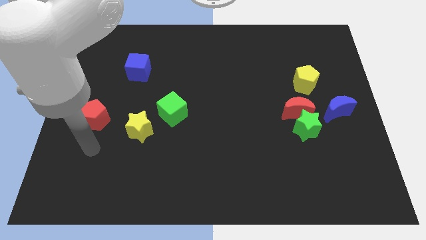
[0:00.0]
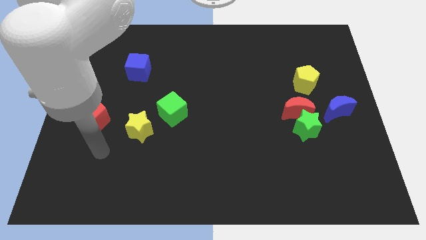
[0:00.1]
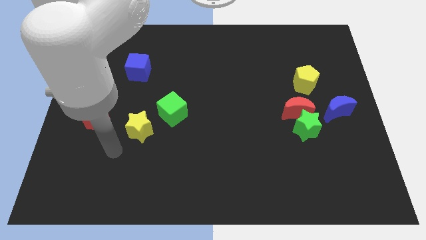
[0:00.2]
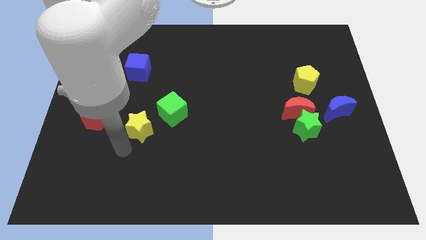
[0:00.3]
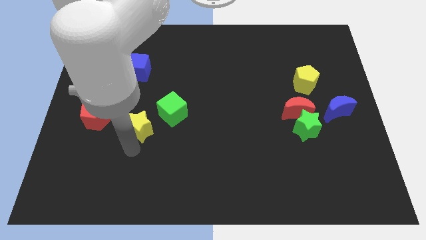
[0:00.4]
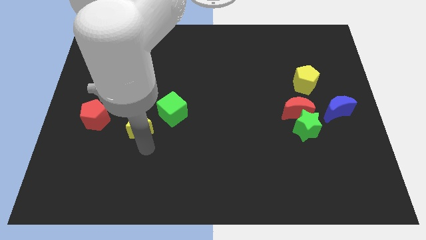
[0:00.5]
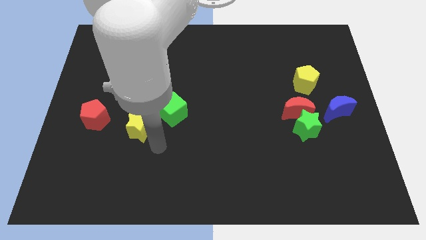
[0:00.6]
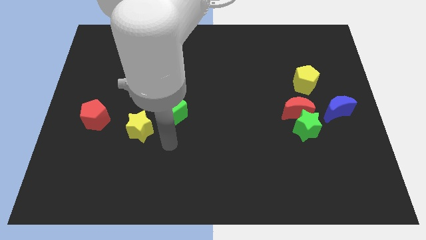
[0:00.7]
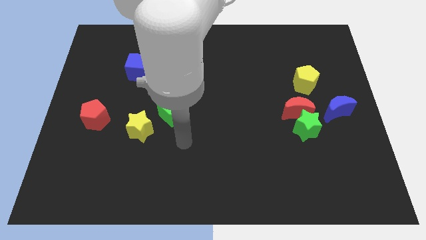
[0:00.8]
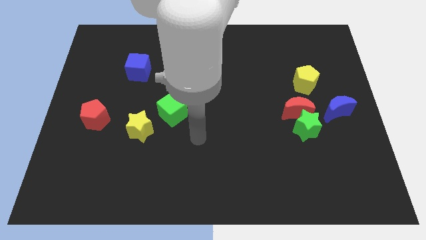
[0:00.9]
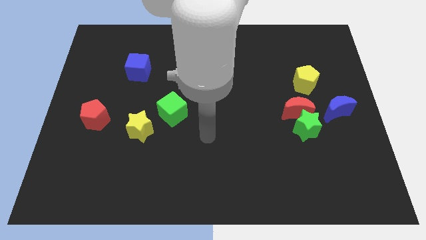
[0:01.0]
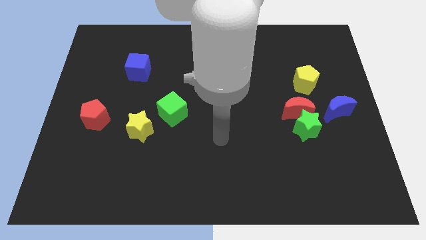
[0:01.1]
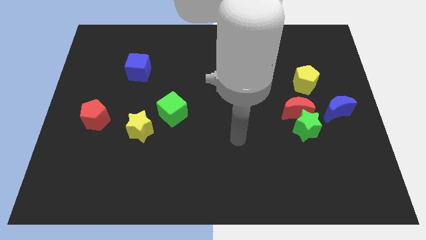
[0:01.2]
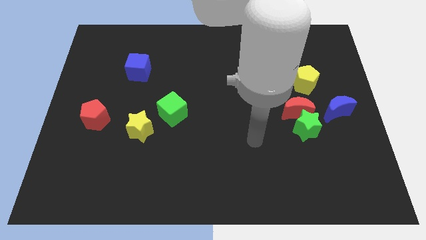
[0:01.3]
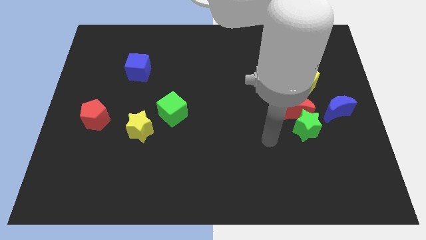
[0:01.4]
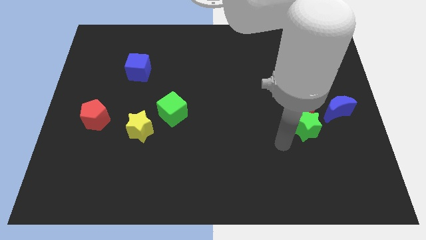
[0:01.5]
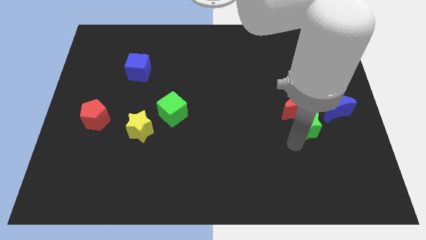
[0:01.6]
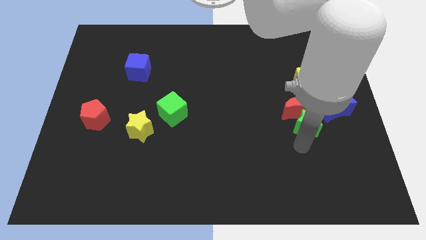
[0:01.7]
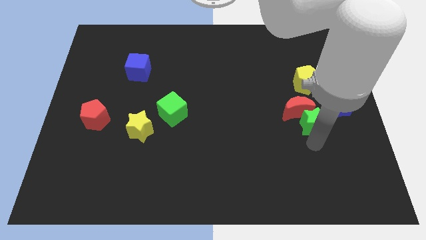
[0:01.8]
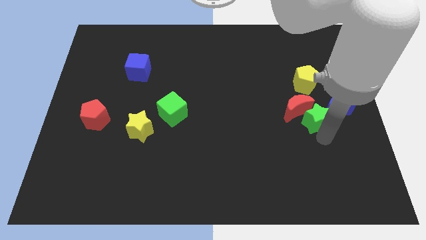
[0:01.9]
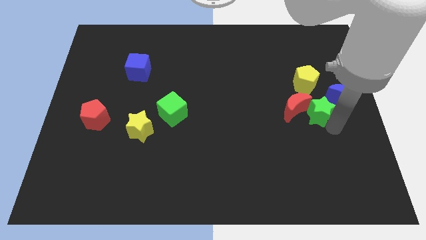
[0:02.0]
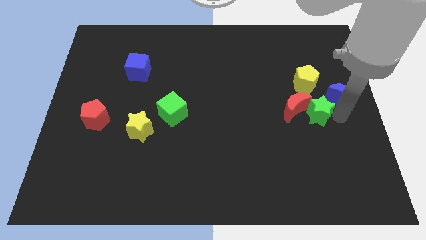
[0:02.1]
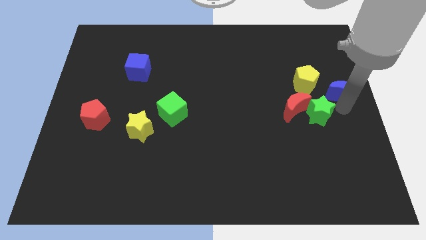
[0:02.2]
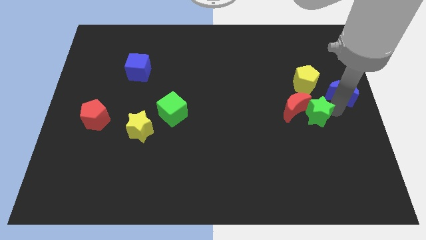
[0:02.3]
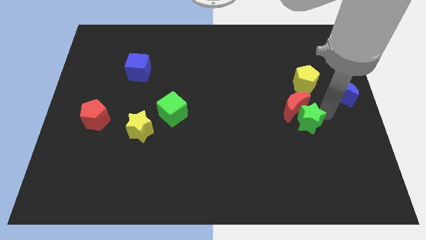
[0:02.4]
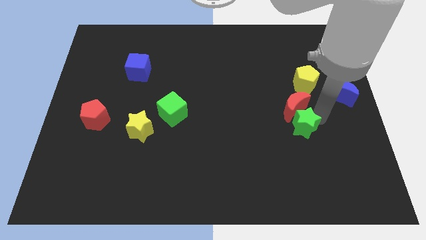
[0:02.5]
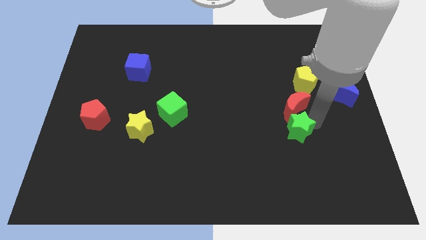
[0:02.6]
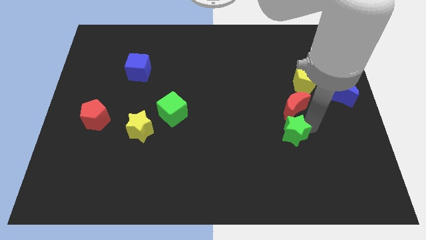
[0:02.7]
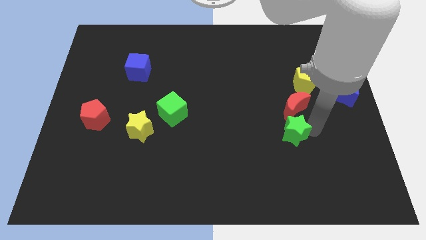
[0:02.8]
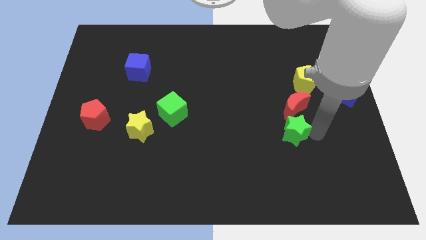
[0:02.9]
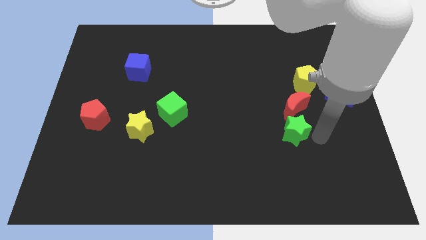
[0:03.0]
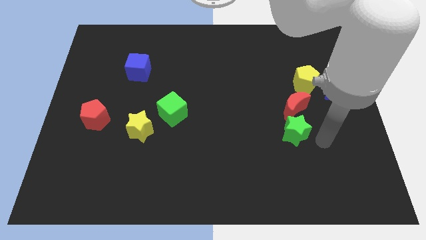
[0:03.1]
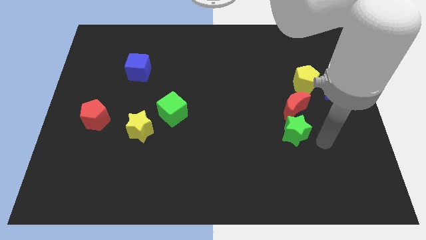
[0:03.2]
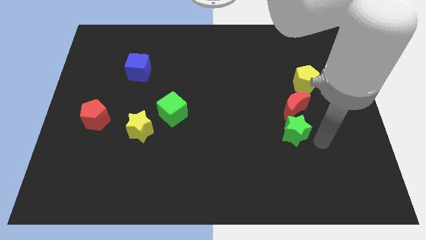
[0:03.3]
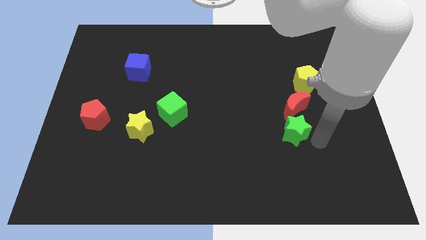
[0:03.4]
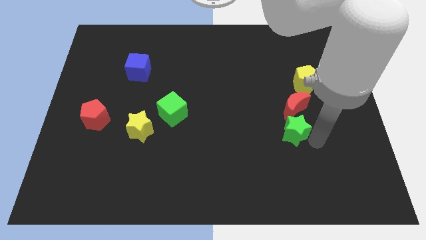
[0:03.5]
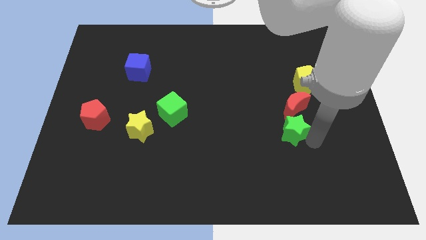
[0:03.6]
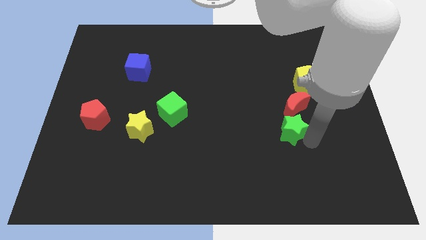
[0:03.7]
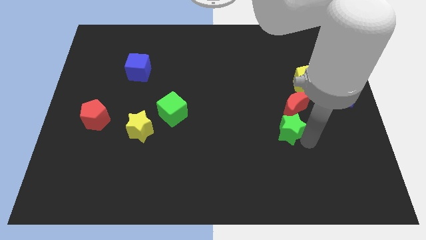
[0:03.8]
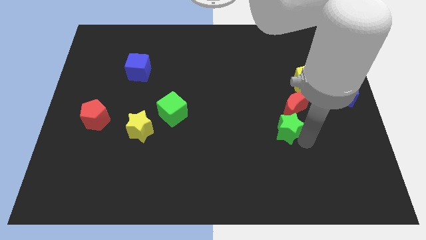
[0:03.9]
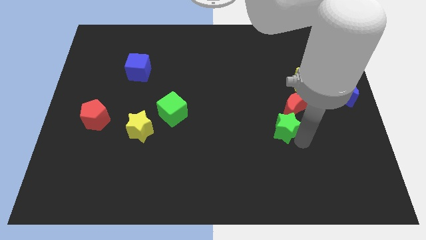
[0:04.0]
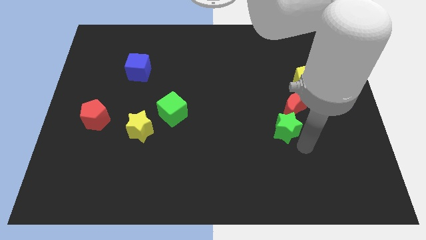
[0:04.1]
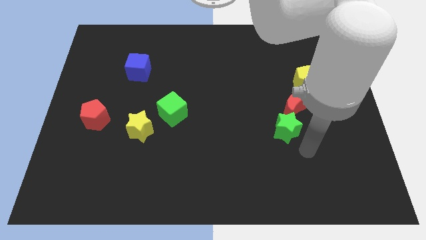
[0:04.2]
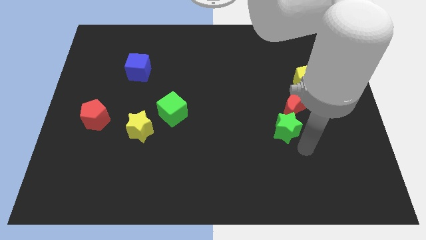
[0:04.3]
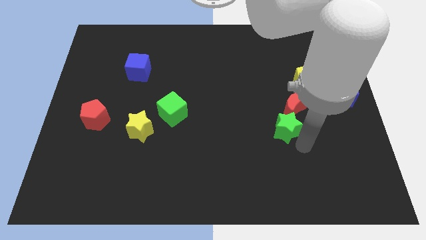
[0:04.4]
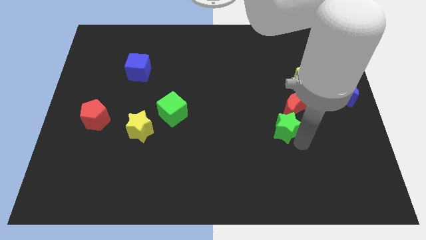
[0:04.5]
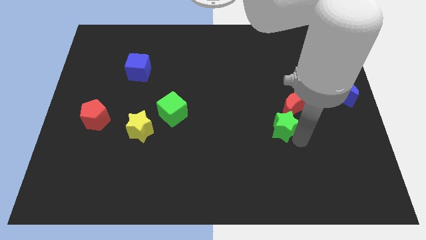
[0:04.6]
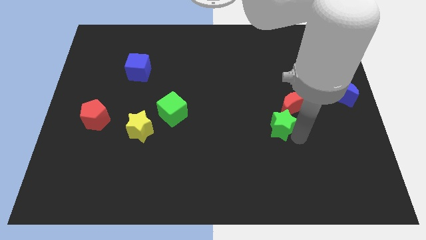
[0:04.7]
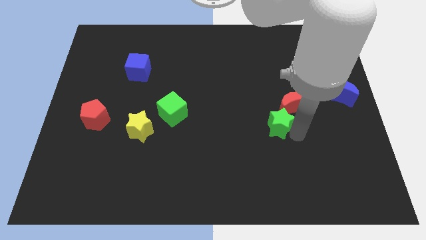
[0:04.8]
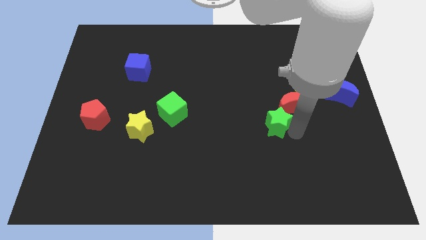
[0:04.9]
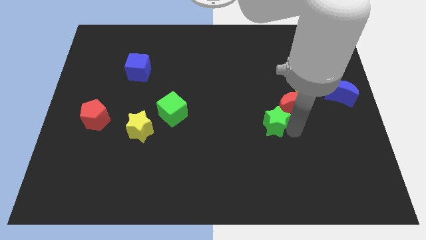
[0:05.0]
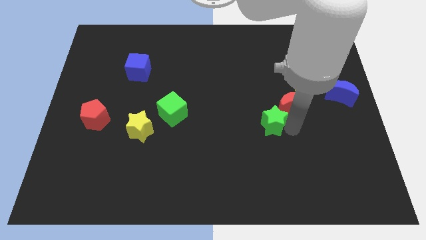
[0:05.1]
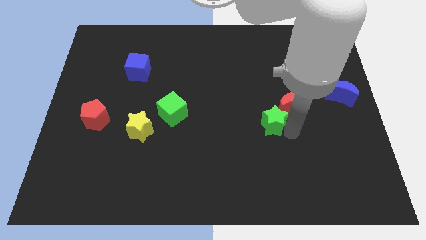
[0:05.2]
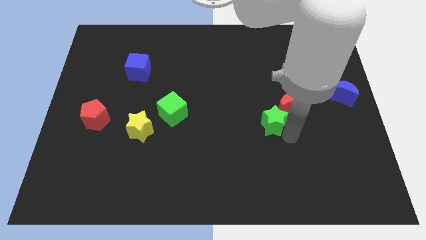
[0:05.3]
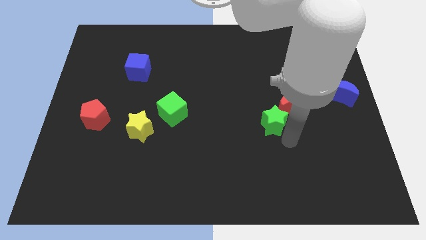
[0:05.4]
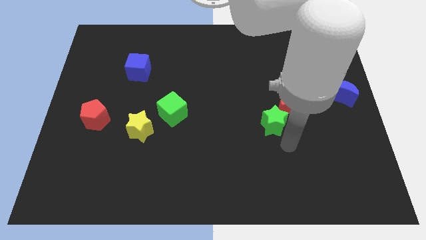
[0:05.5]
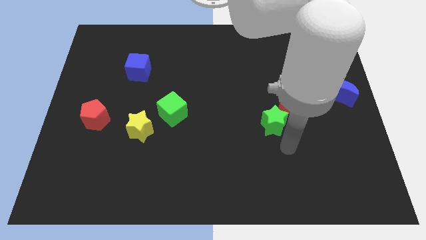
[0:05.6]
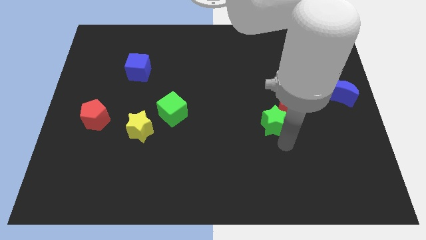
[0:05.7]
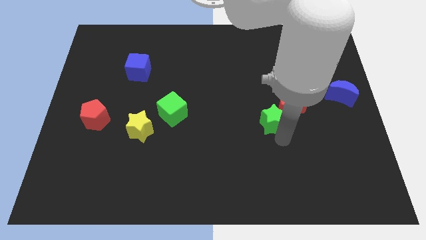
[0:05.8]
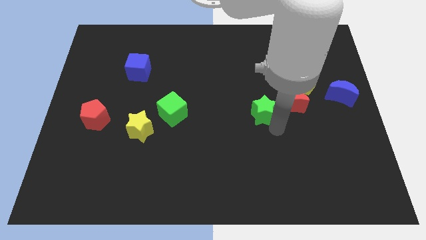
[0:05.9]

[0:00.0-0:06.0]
push the green star diagonally up and to the left somewhat

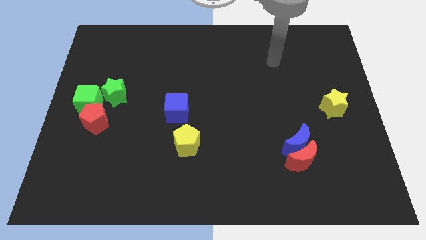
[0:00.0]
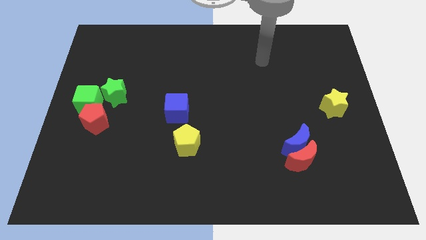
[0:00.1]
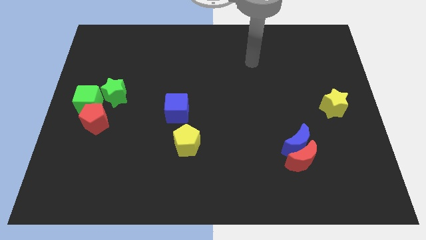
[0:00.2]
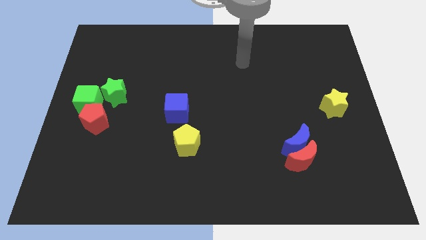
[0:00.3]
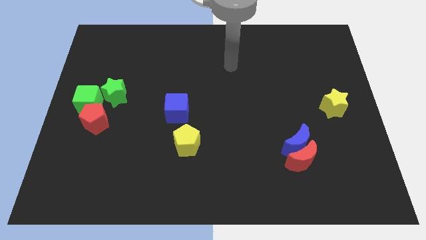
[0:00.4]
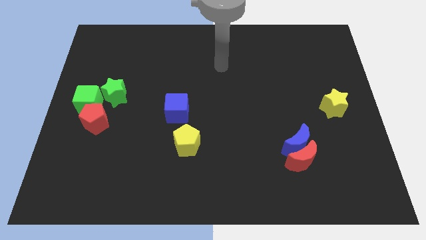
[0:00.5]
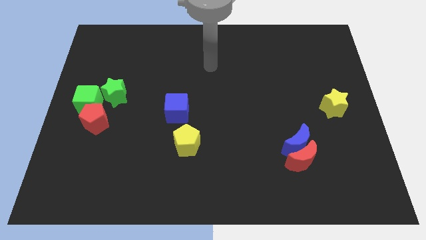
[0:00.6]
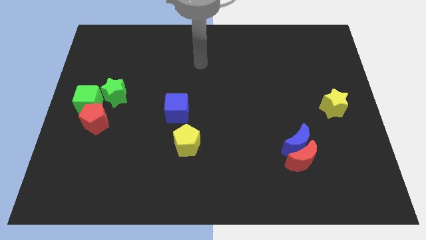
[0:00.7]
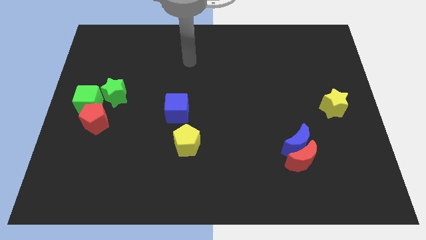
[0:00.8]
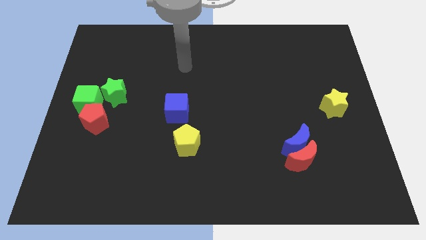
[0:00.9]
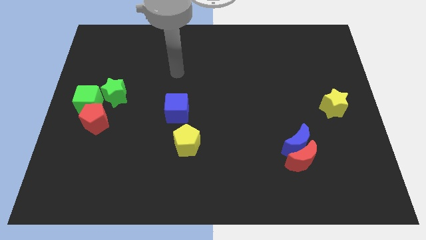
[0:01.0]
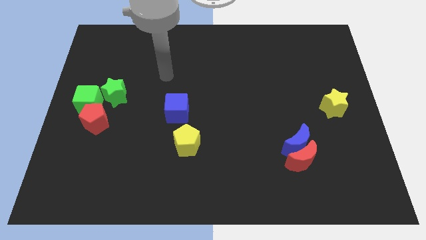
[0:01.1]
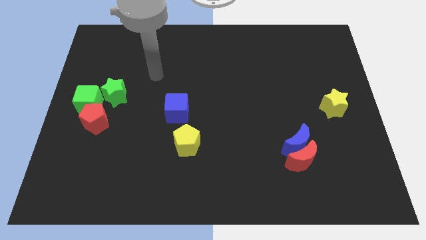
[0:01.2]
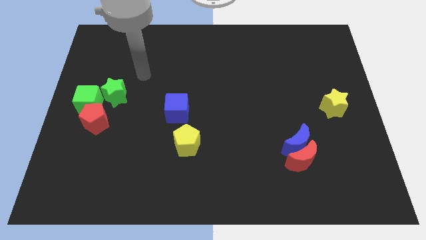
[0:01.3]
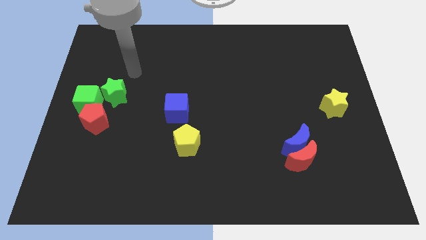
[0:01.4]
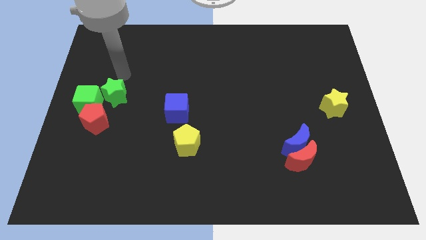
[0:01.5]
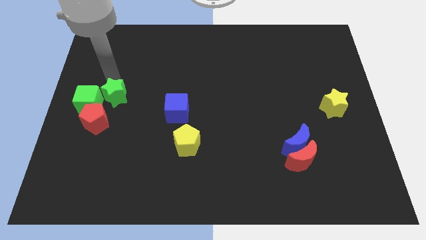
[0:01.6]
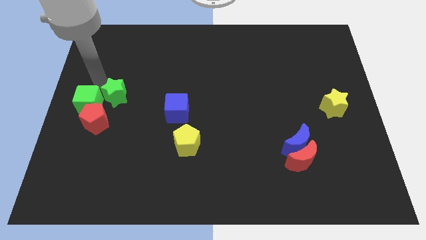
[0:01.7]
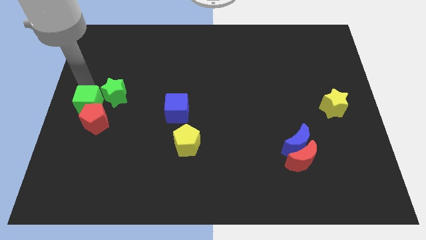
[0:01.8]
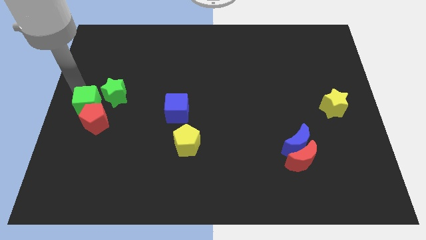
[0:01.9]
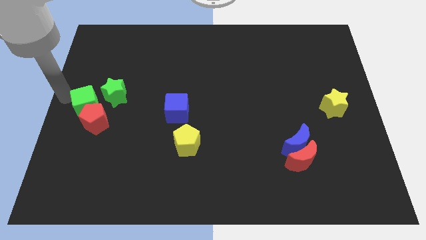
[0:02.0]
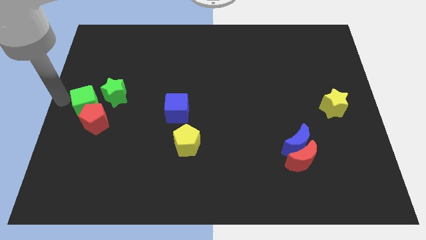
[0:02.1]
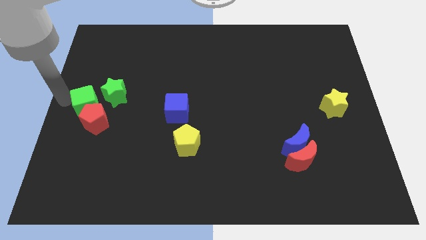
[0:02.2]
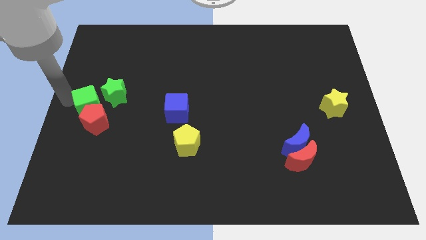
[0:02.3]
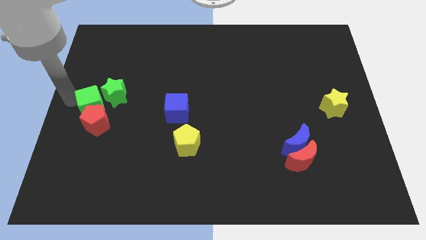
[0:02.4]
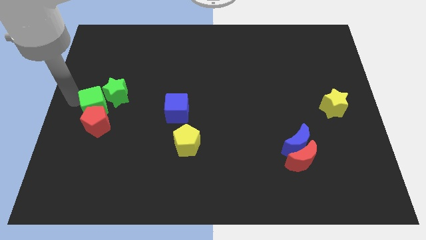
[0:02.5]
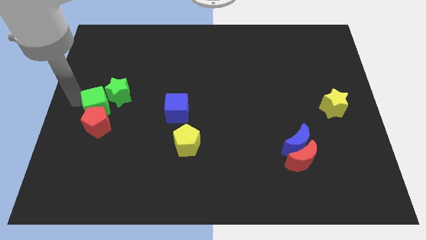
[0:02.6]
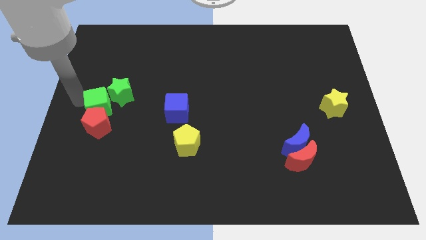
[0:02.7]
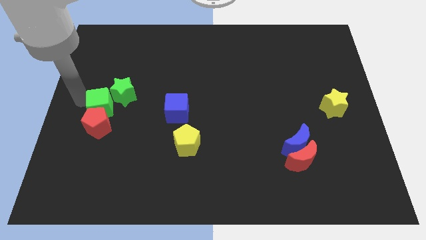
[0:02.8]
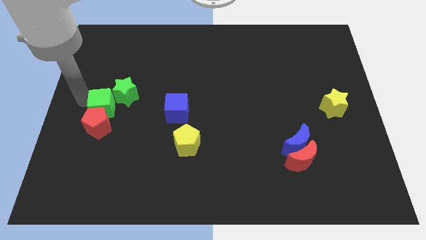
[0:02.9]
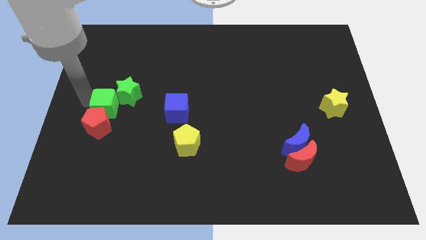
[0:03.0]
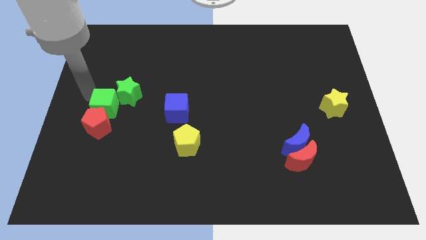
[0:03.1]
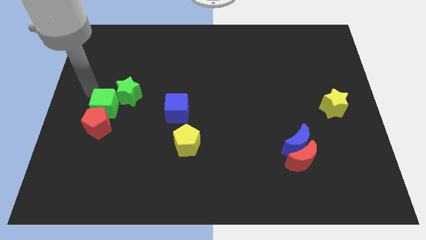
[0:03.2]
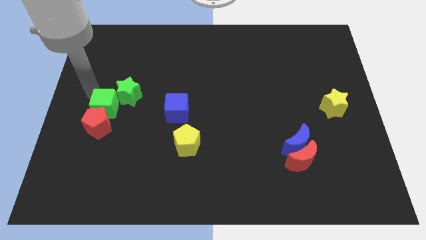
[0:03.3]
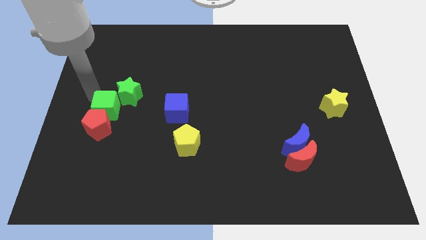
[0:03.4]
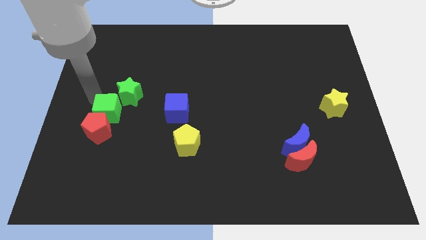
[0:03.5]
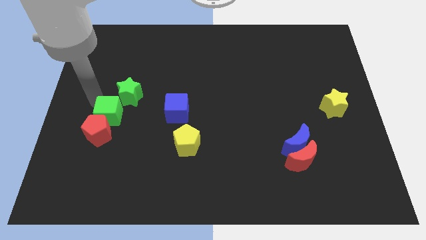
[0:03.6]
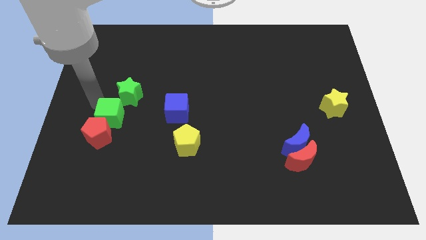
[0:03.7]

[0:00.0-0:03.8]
slide the green cube a little diagonally downwards and to the right
